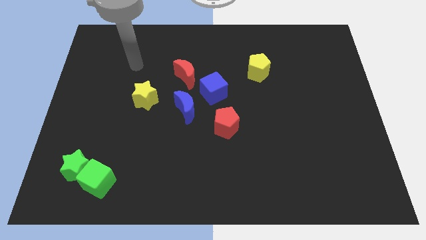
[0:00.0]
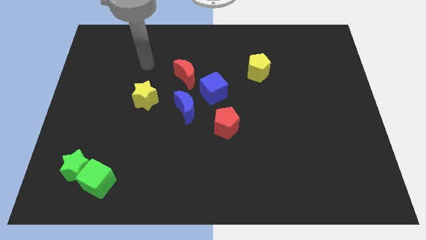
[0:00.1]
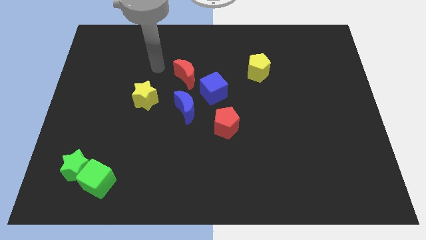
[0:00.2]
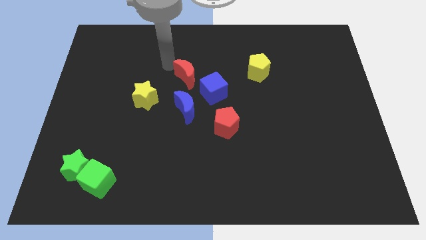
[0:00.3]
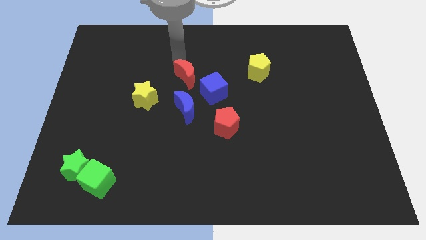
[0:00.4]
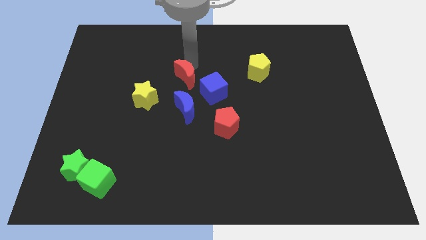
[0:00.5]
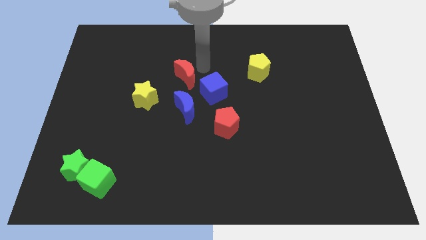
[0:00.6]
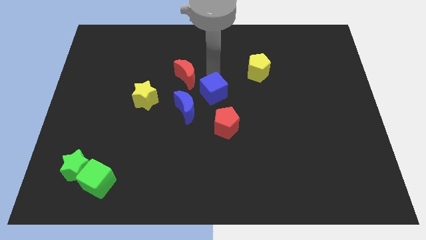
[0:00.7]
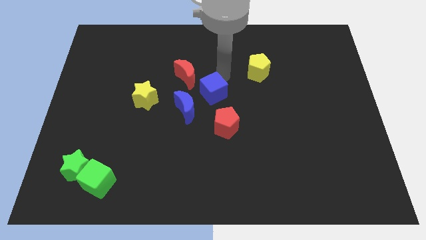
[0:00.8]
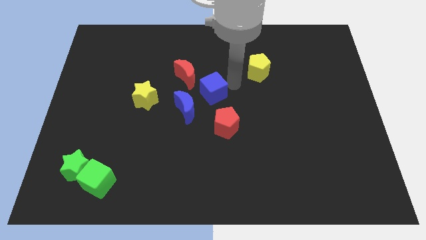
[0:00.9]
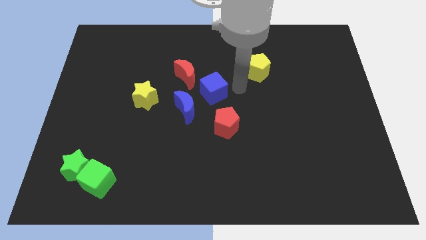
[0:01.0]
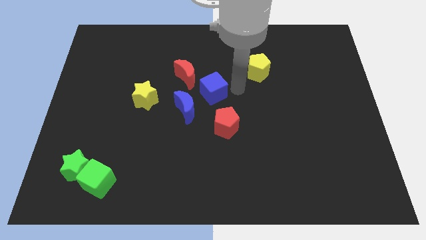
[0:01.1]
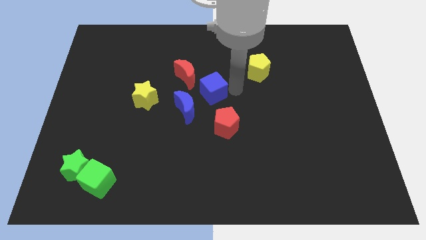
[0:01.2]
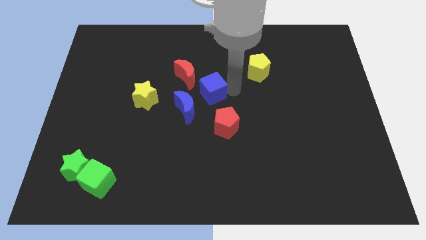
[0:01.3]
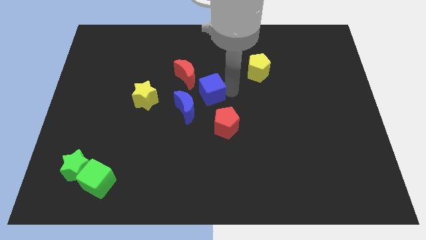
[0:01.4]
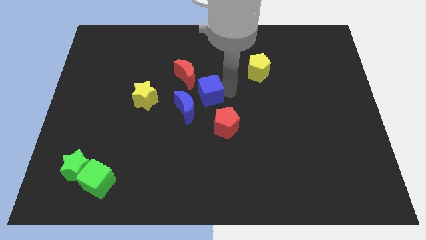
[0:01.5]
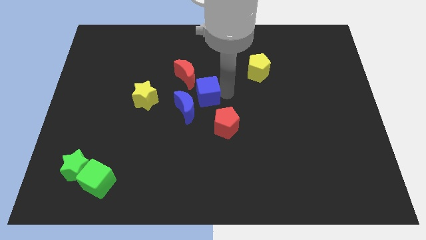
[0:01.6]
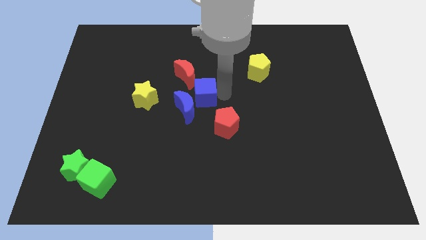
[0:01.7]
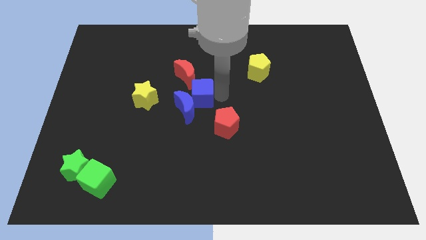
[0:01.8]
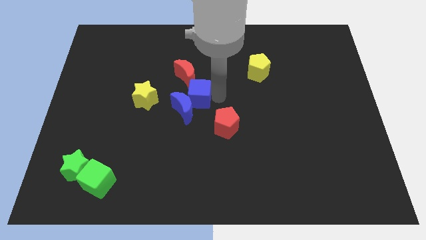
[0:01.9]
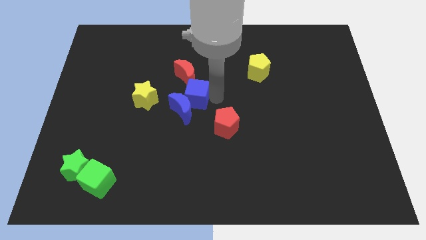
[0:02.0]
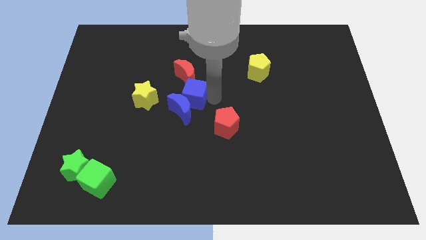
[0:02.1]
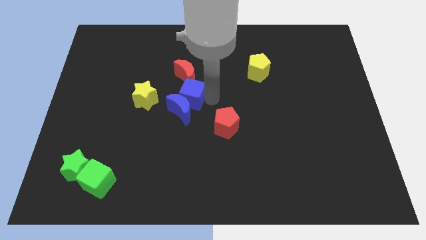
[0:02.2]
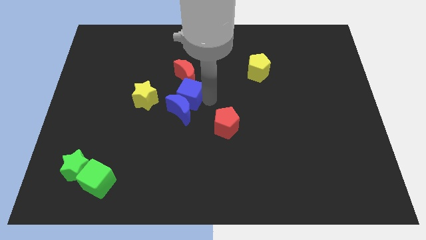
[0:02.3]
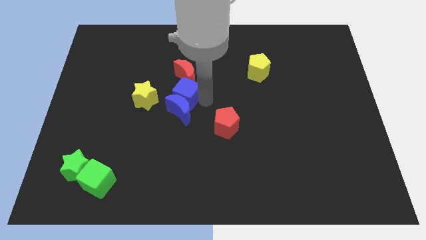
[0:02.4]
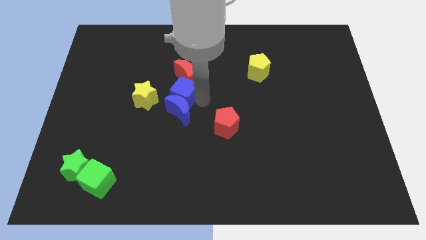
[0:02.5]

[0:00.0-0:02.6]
push the blue cube to the left a bit

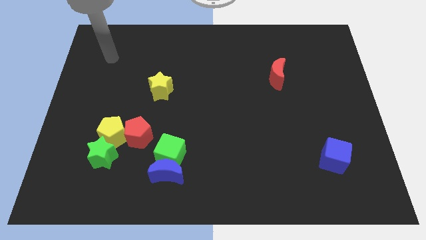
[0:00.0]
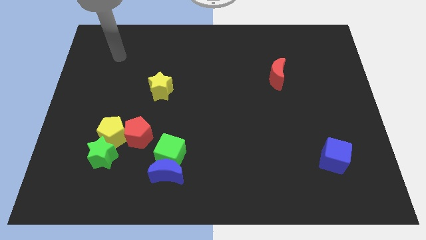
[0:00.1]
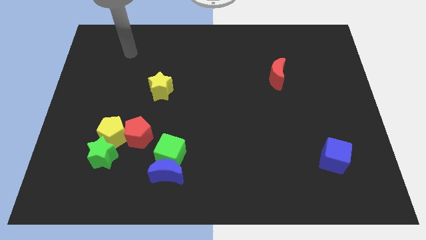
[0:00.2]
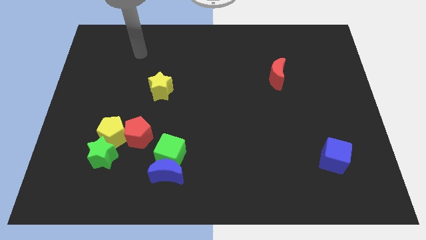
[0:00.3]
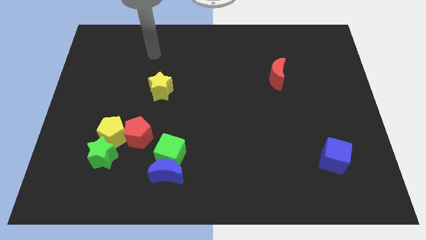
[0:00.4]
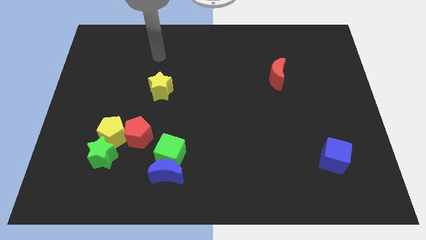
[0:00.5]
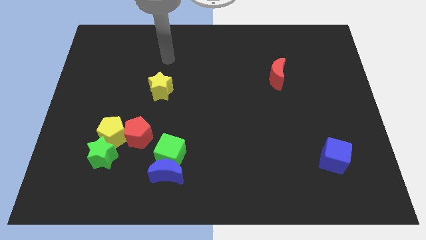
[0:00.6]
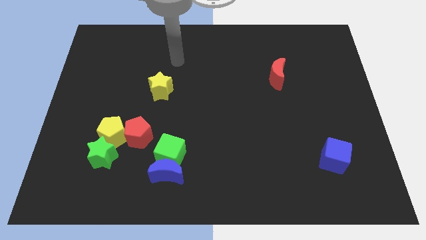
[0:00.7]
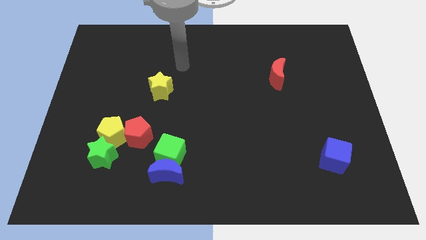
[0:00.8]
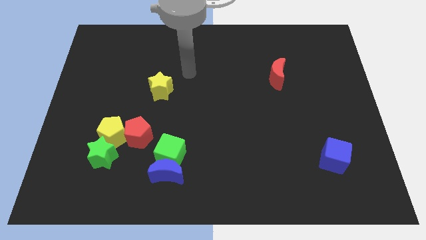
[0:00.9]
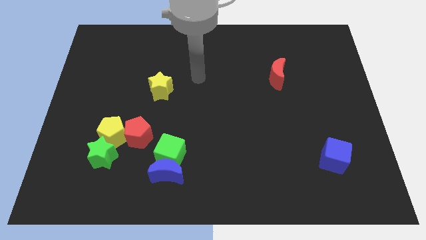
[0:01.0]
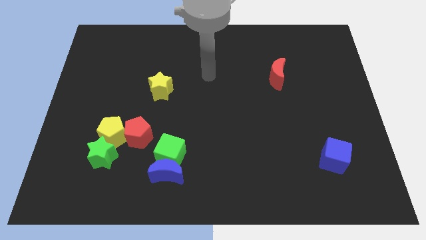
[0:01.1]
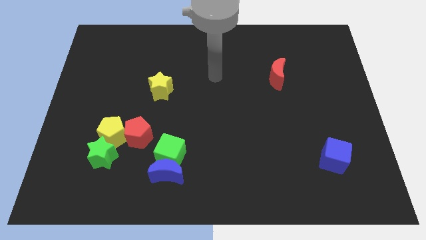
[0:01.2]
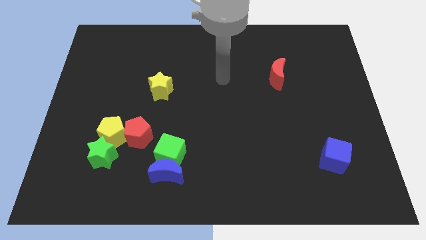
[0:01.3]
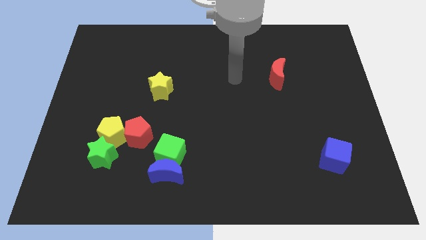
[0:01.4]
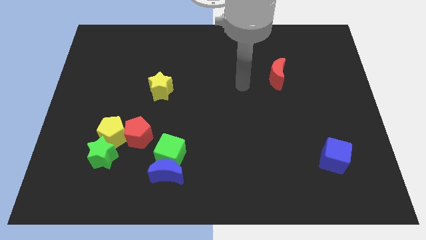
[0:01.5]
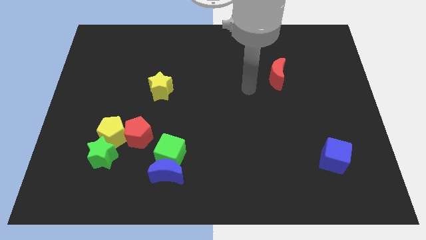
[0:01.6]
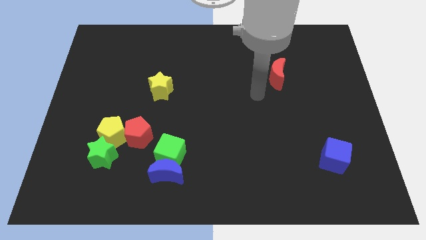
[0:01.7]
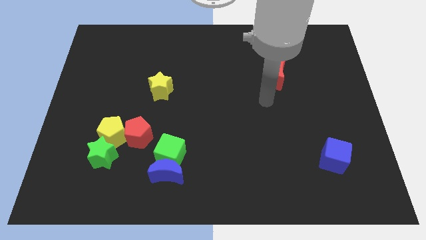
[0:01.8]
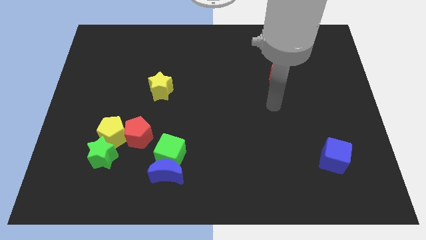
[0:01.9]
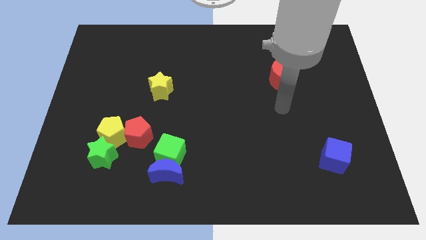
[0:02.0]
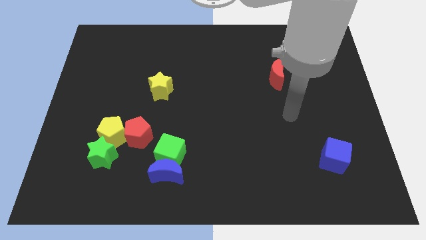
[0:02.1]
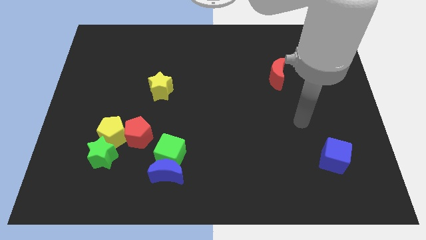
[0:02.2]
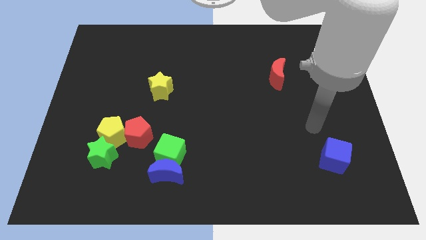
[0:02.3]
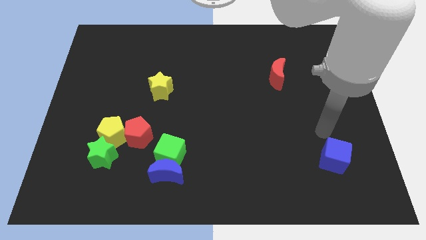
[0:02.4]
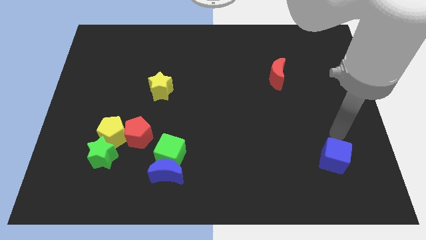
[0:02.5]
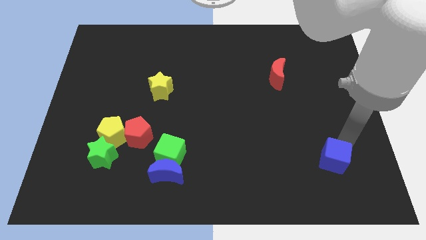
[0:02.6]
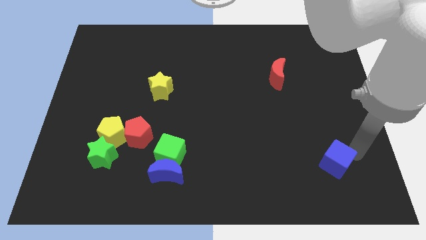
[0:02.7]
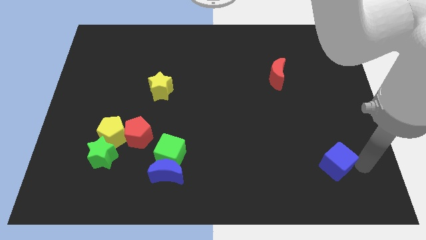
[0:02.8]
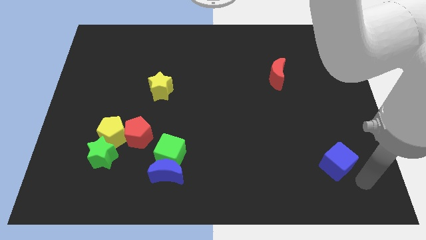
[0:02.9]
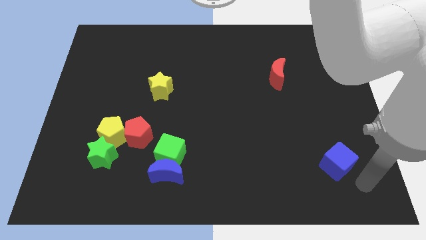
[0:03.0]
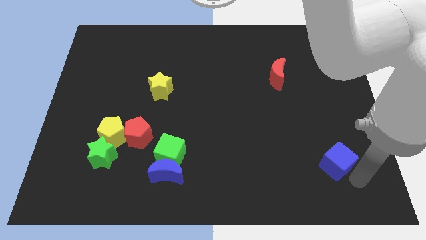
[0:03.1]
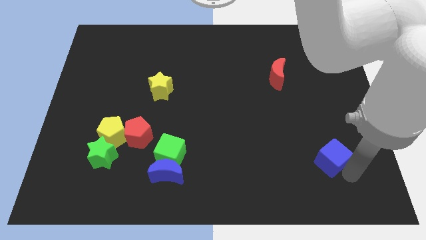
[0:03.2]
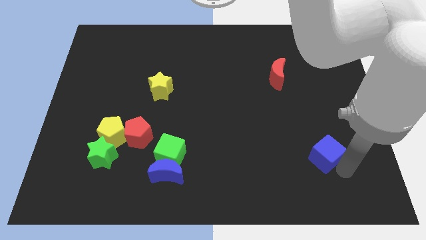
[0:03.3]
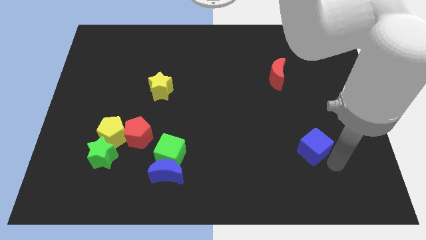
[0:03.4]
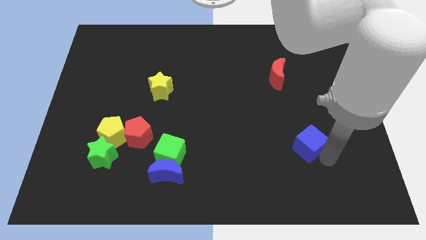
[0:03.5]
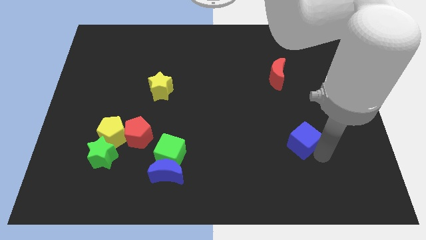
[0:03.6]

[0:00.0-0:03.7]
move the blue cube up and then to the left a bit

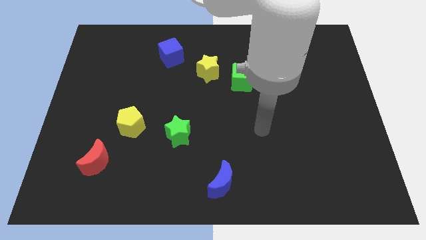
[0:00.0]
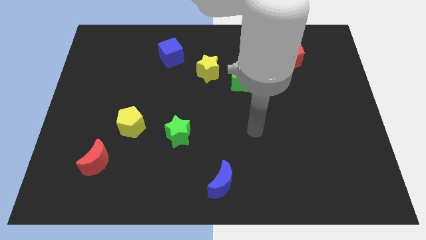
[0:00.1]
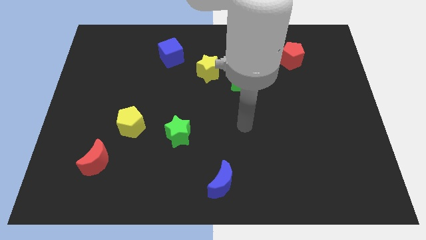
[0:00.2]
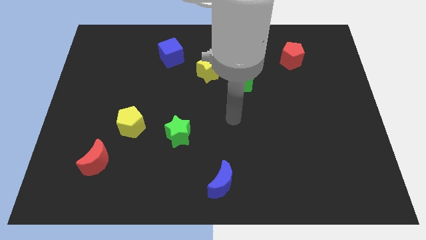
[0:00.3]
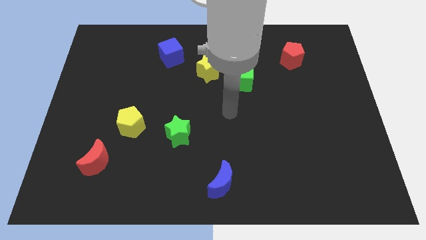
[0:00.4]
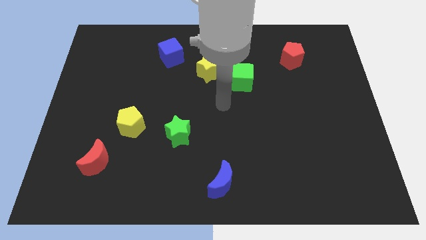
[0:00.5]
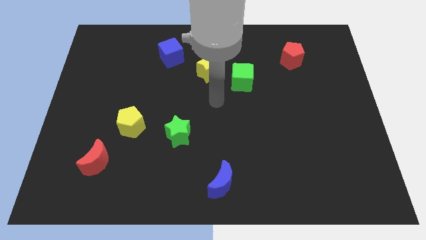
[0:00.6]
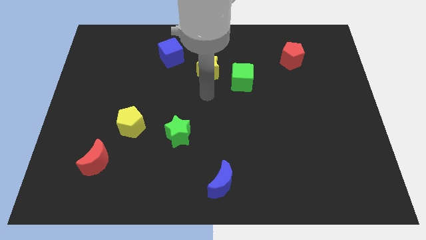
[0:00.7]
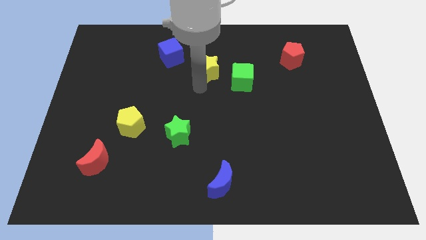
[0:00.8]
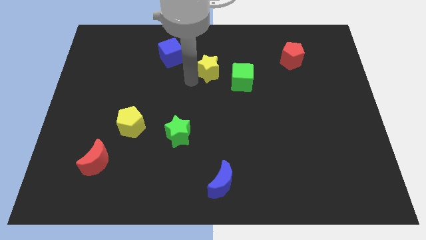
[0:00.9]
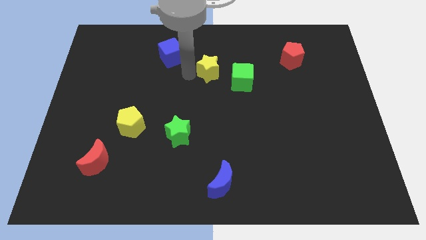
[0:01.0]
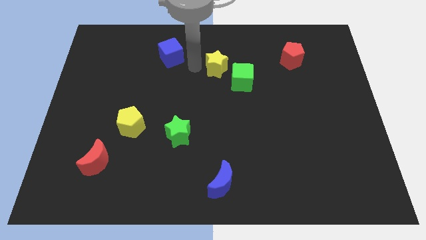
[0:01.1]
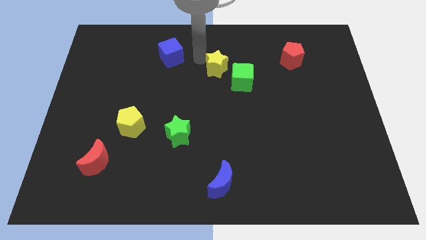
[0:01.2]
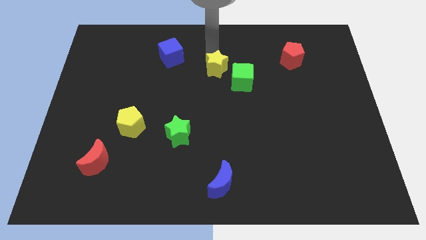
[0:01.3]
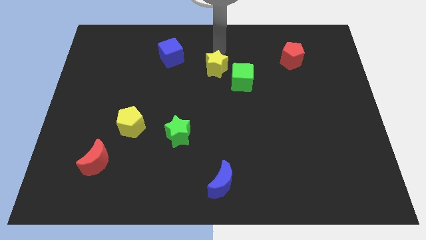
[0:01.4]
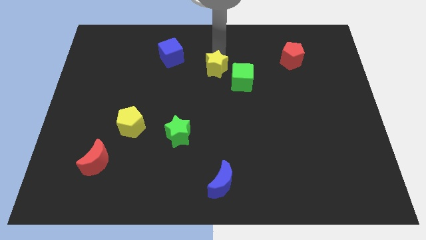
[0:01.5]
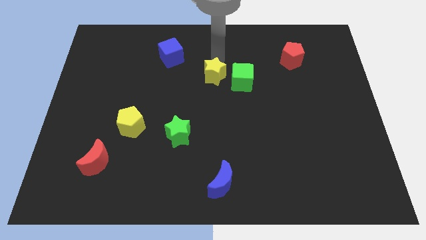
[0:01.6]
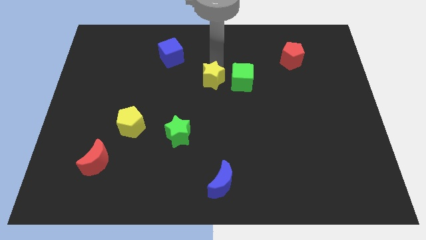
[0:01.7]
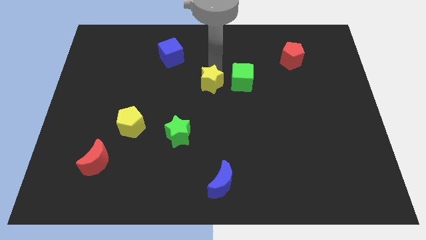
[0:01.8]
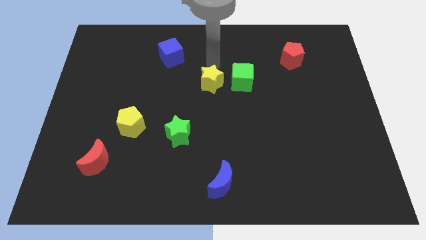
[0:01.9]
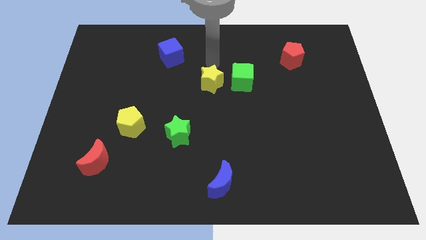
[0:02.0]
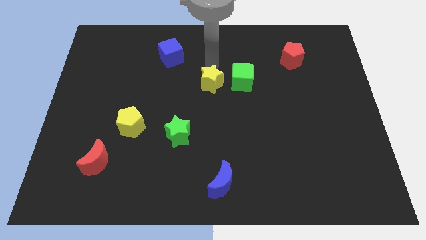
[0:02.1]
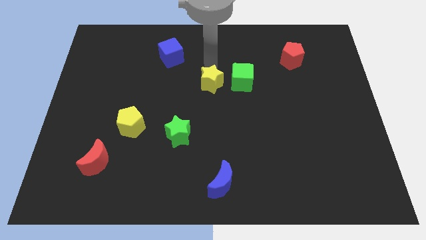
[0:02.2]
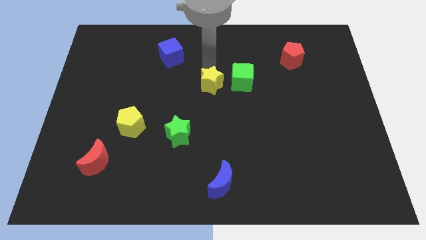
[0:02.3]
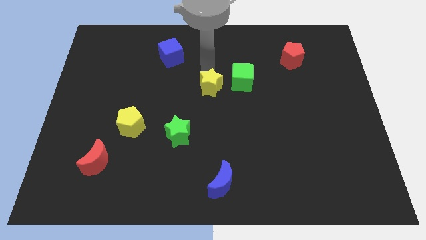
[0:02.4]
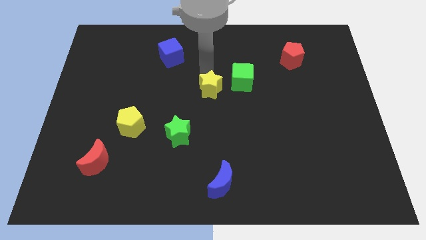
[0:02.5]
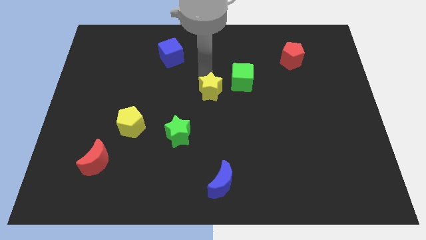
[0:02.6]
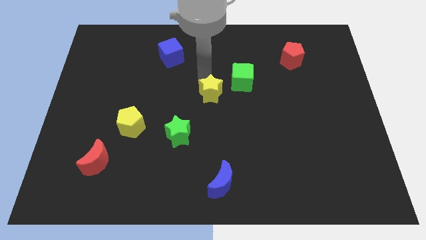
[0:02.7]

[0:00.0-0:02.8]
slightly push the yellow star down
